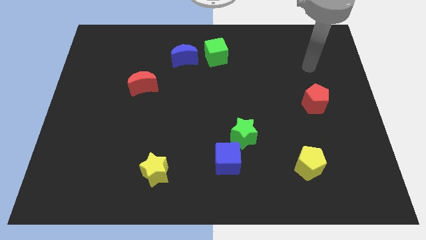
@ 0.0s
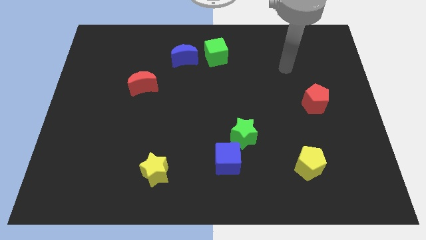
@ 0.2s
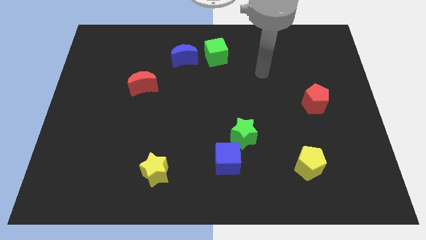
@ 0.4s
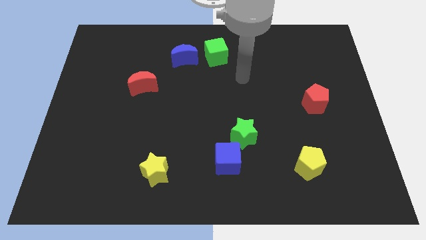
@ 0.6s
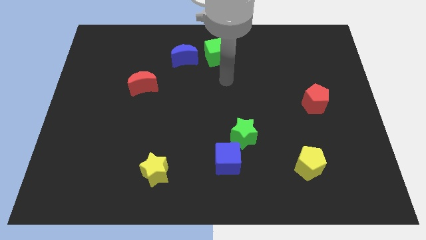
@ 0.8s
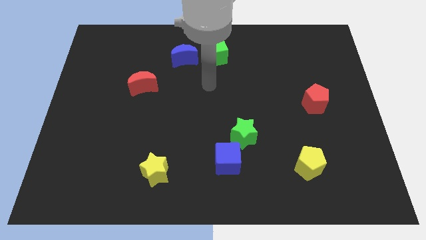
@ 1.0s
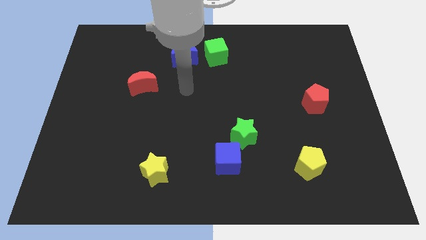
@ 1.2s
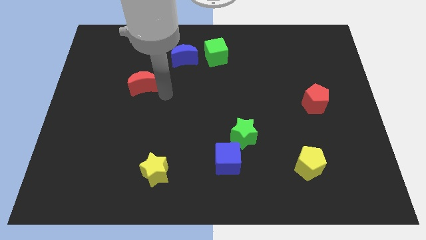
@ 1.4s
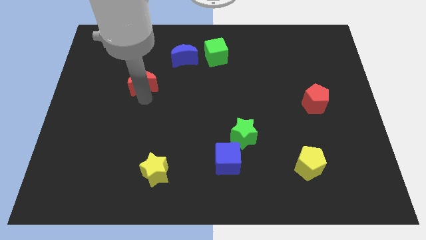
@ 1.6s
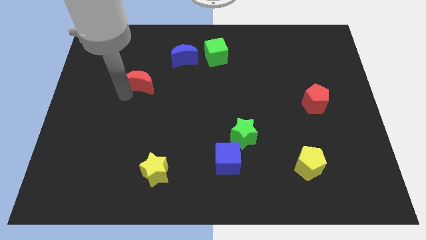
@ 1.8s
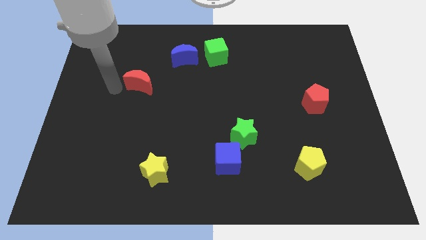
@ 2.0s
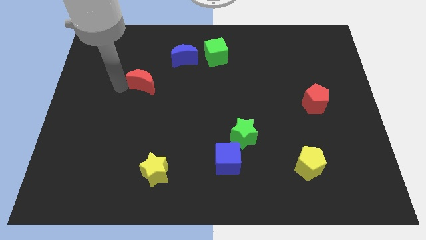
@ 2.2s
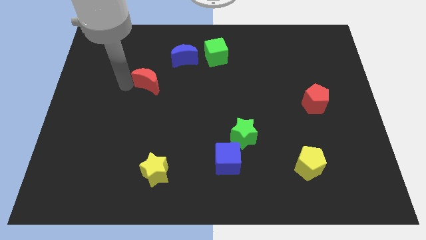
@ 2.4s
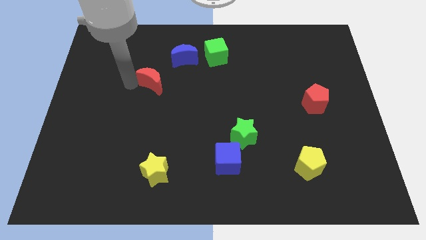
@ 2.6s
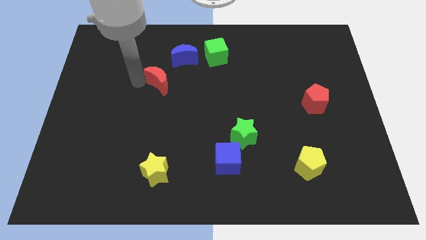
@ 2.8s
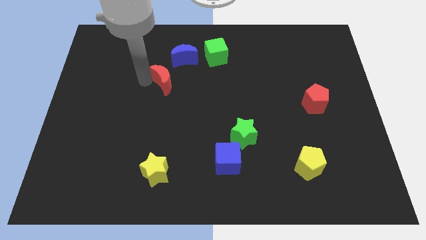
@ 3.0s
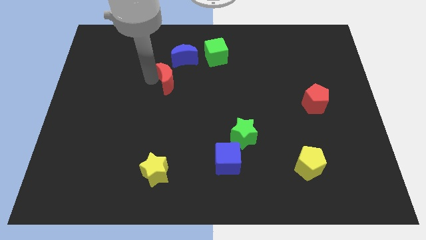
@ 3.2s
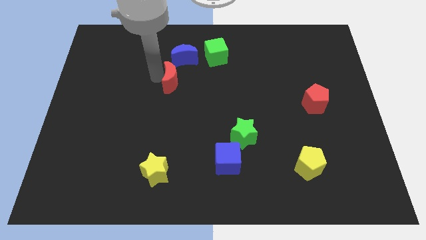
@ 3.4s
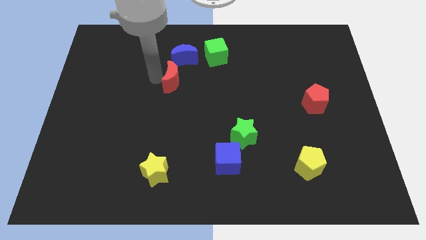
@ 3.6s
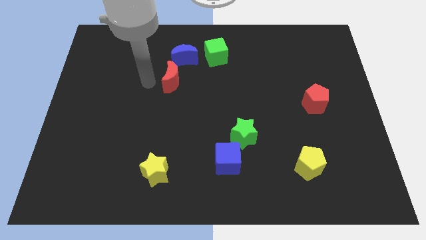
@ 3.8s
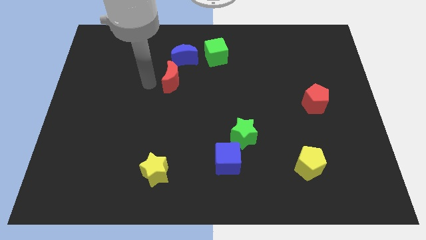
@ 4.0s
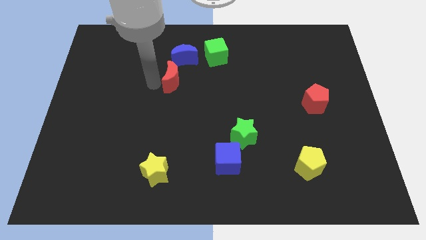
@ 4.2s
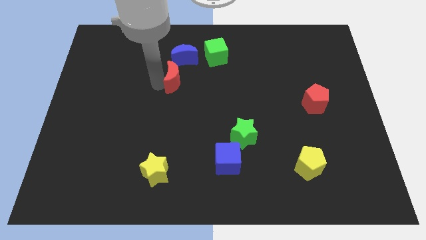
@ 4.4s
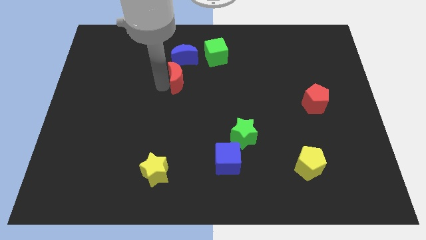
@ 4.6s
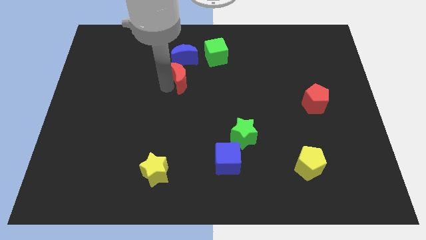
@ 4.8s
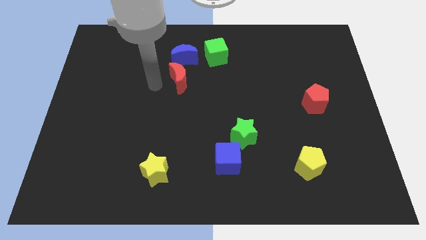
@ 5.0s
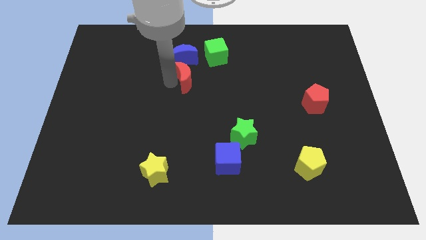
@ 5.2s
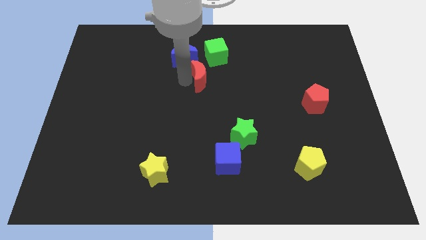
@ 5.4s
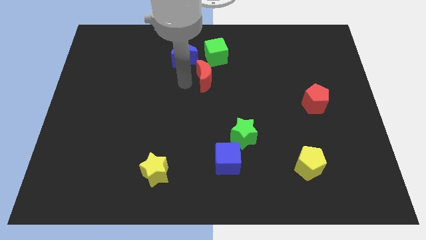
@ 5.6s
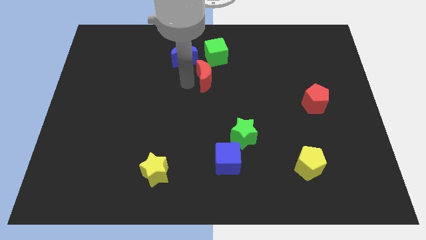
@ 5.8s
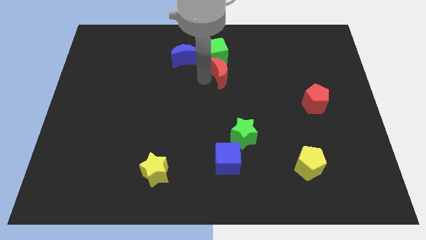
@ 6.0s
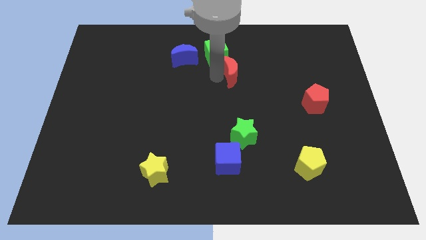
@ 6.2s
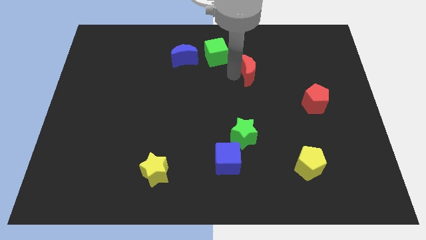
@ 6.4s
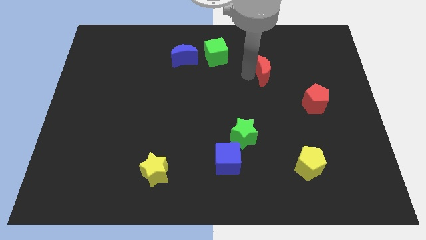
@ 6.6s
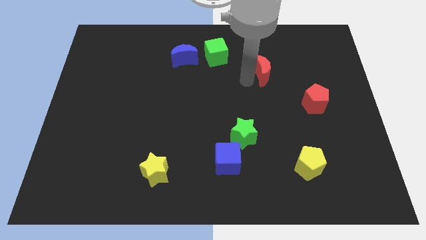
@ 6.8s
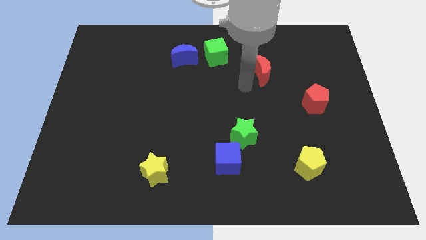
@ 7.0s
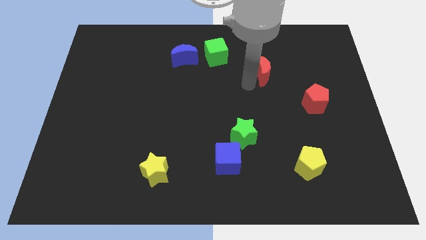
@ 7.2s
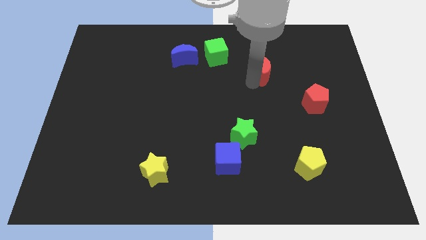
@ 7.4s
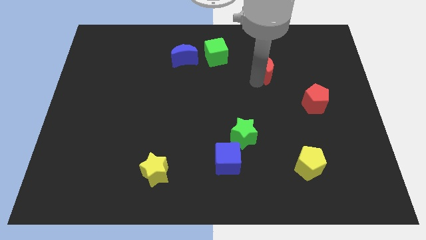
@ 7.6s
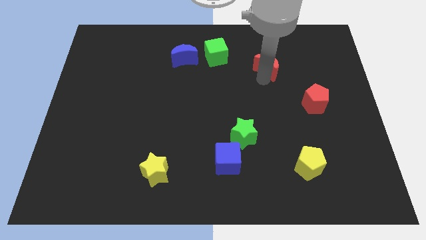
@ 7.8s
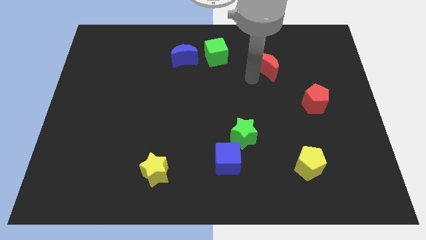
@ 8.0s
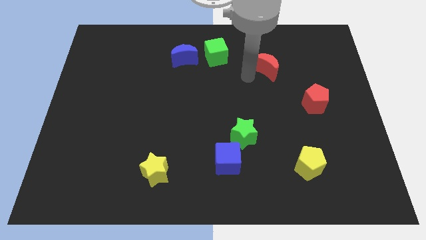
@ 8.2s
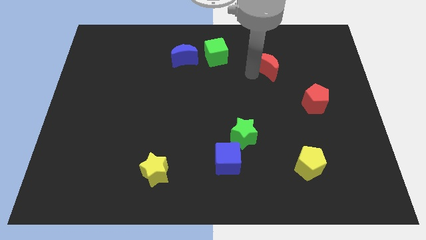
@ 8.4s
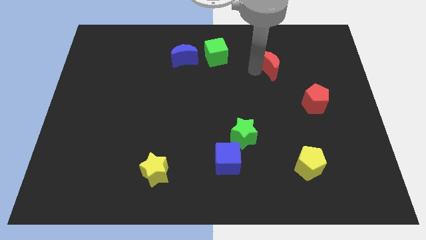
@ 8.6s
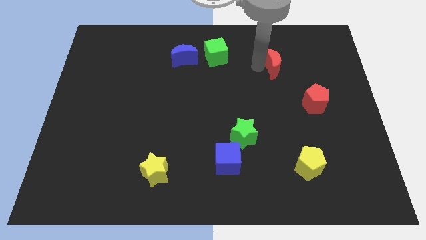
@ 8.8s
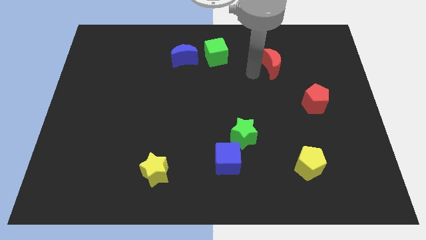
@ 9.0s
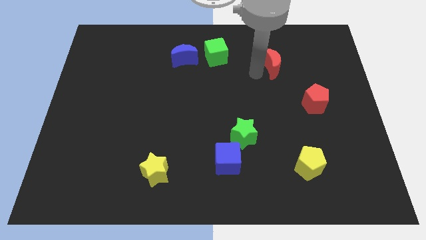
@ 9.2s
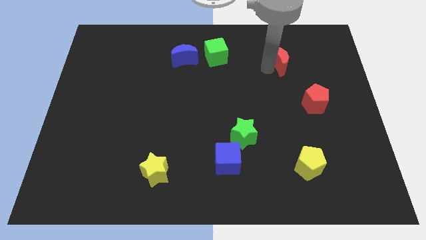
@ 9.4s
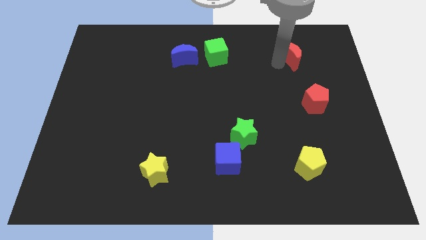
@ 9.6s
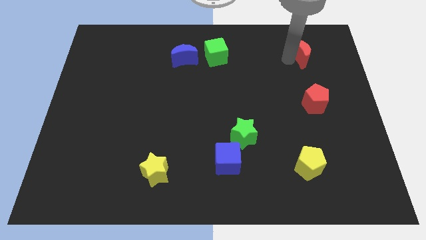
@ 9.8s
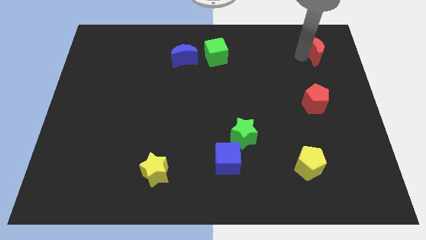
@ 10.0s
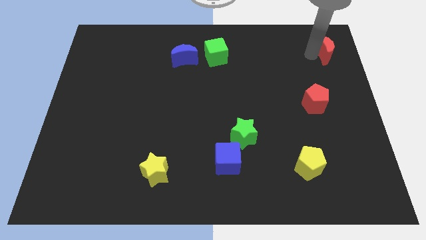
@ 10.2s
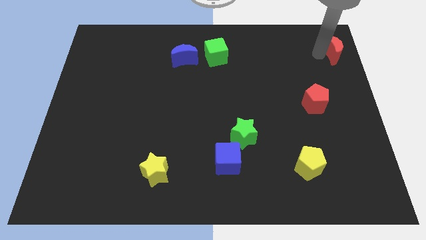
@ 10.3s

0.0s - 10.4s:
slide the red moon to the top right
